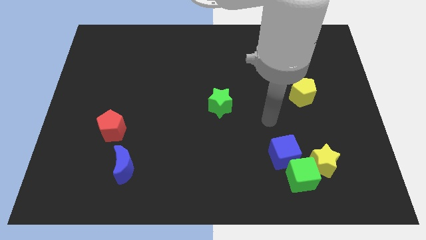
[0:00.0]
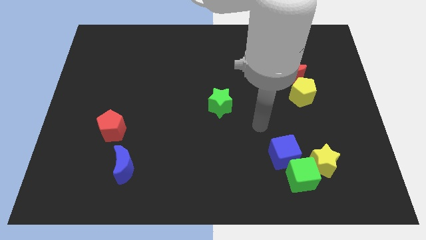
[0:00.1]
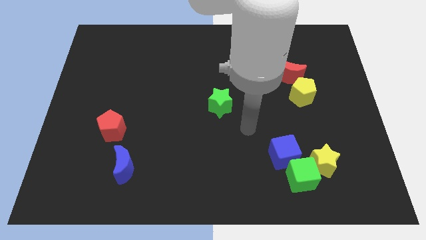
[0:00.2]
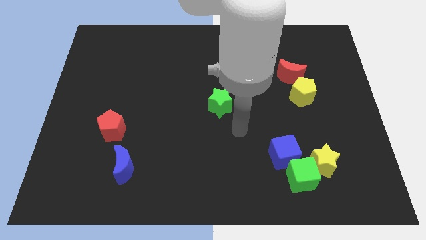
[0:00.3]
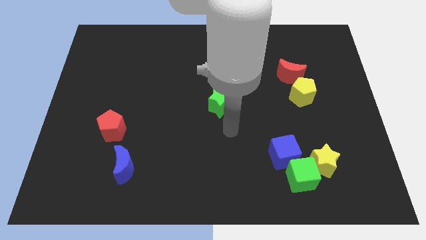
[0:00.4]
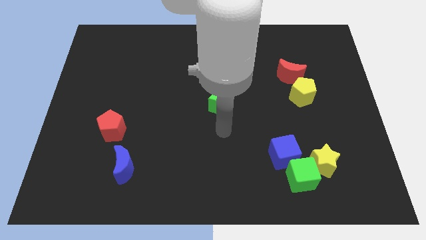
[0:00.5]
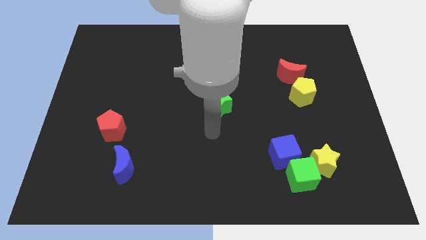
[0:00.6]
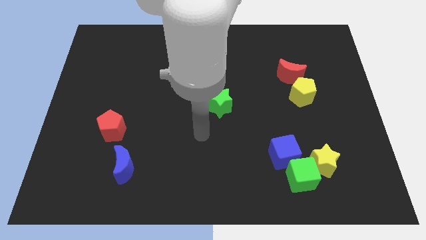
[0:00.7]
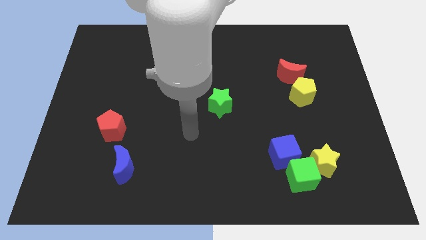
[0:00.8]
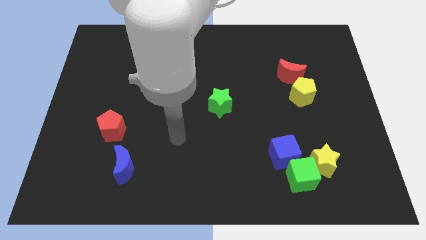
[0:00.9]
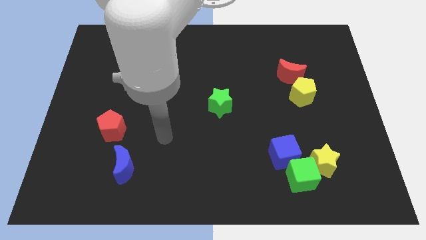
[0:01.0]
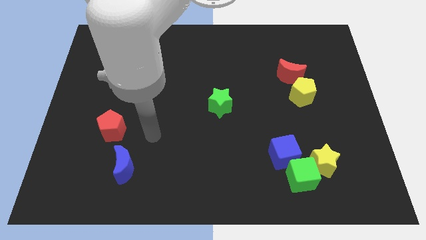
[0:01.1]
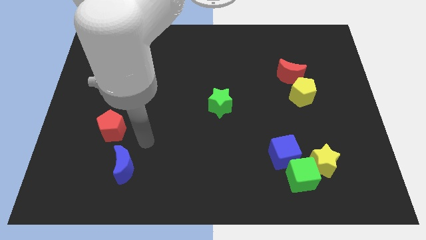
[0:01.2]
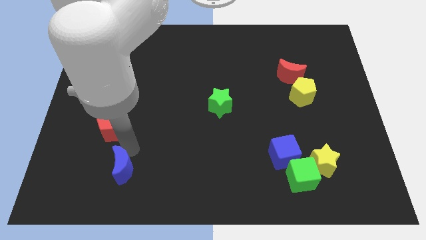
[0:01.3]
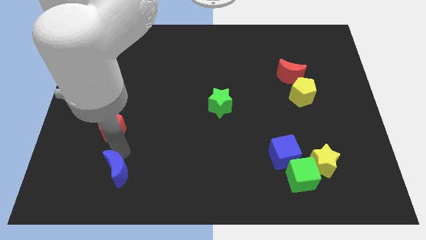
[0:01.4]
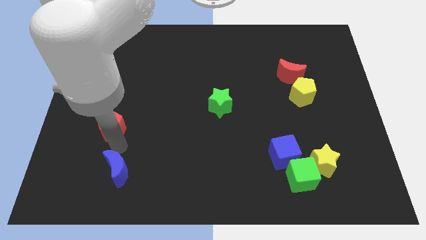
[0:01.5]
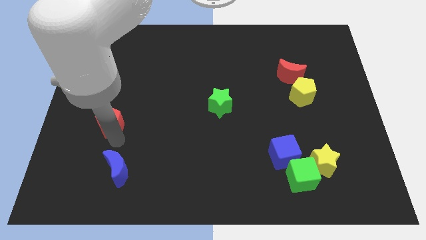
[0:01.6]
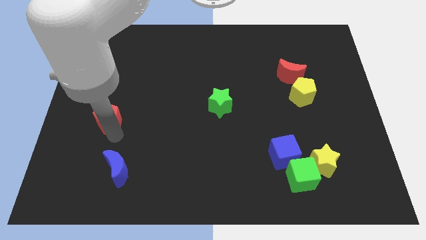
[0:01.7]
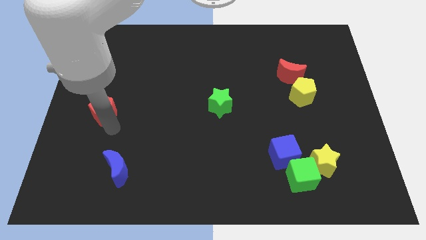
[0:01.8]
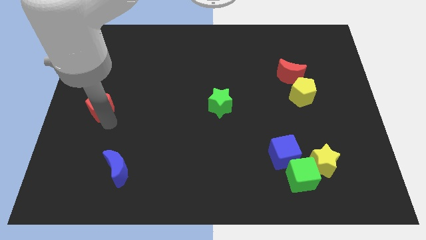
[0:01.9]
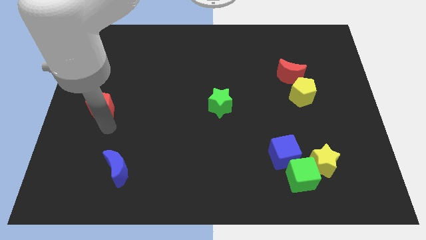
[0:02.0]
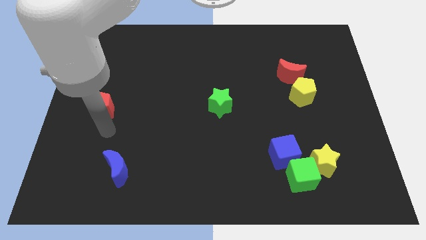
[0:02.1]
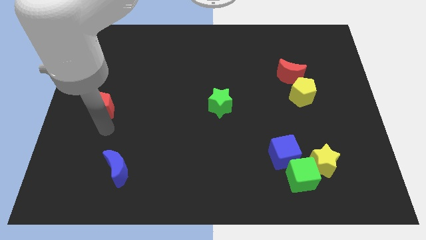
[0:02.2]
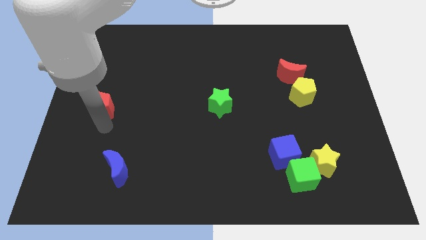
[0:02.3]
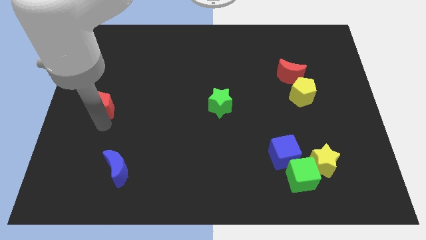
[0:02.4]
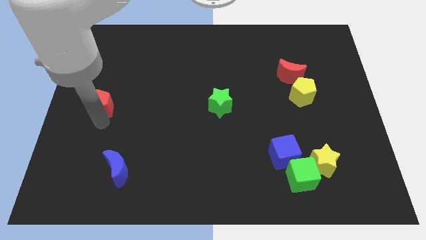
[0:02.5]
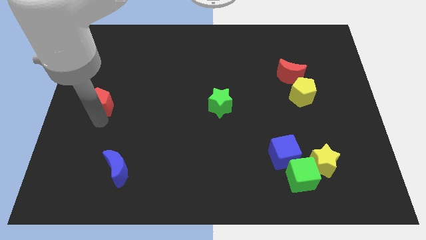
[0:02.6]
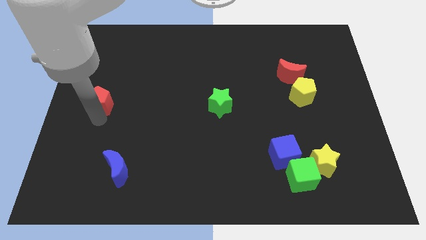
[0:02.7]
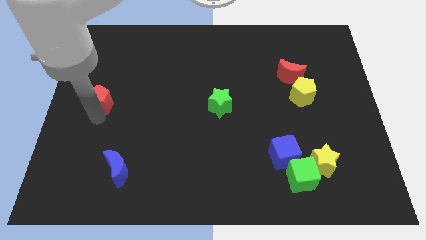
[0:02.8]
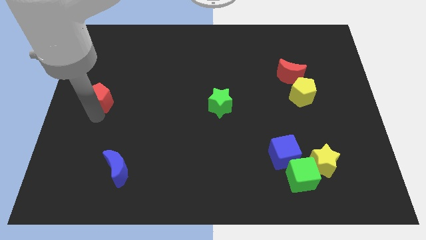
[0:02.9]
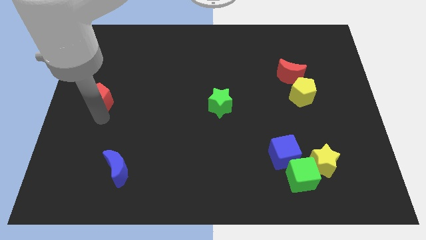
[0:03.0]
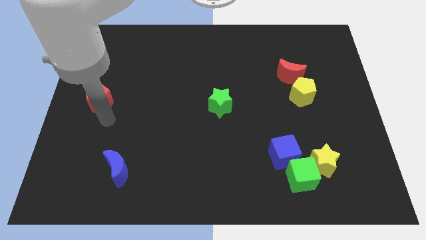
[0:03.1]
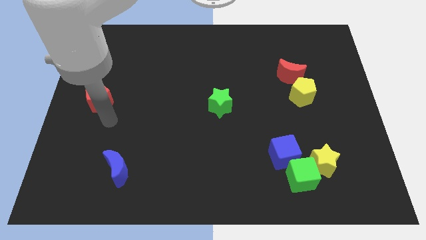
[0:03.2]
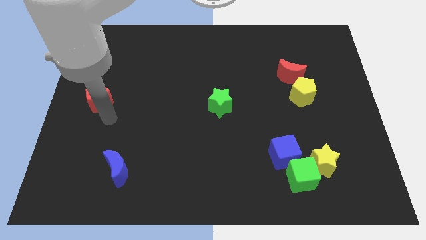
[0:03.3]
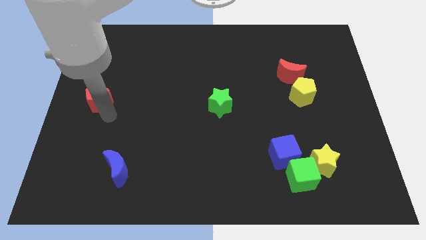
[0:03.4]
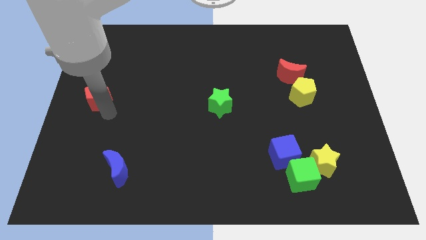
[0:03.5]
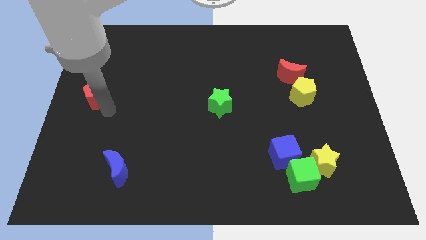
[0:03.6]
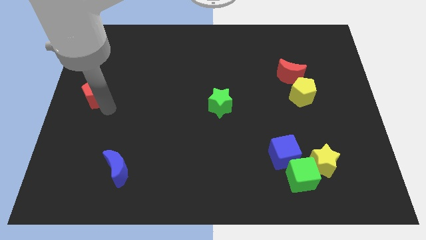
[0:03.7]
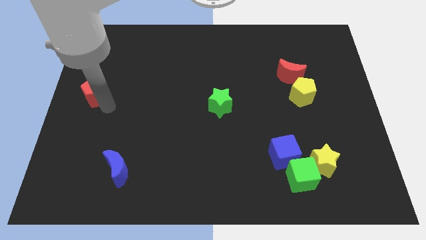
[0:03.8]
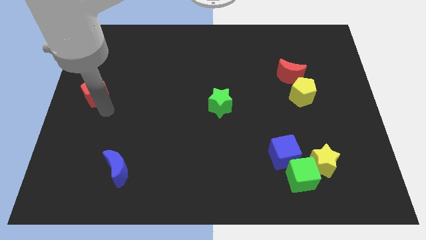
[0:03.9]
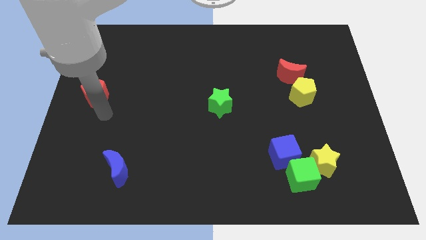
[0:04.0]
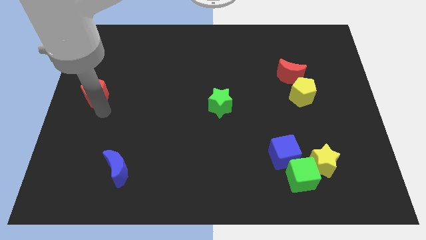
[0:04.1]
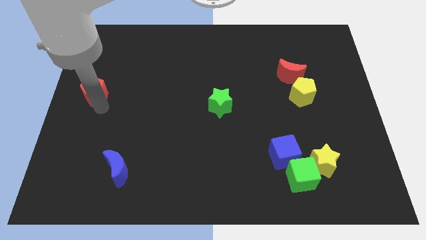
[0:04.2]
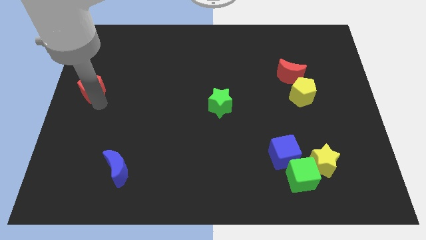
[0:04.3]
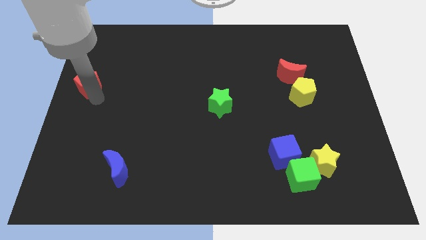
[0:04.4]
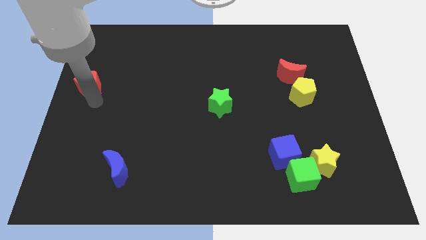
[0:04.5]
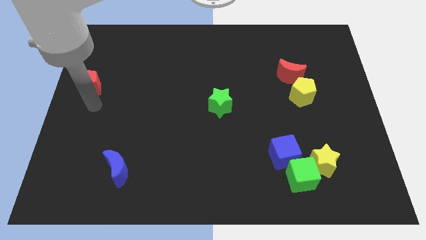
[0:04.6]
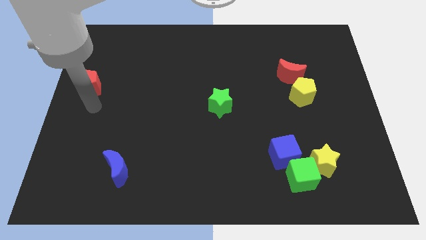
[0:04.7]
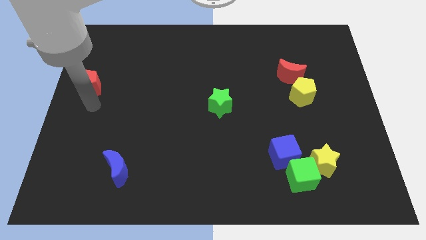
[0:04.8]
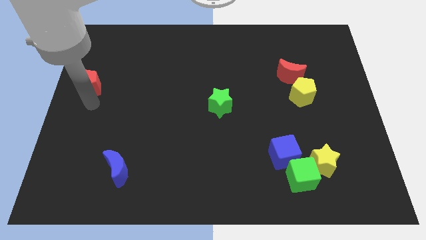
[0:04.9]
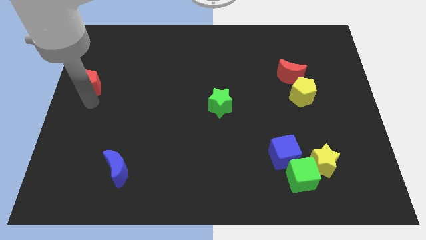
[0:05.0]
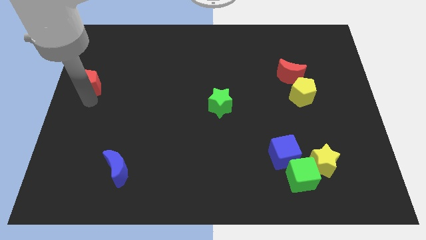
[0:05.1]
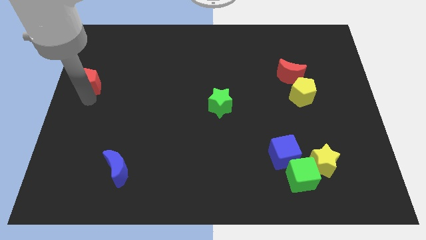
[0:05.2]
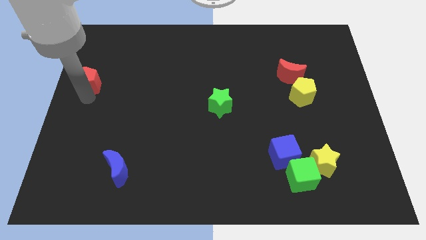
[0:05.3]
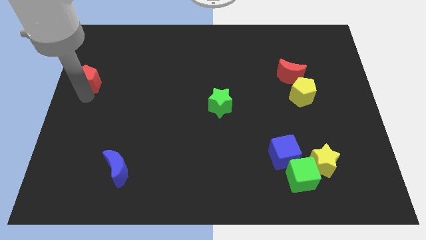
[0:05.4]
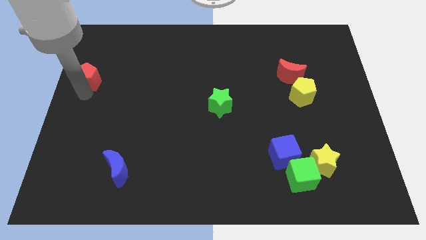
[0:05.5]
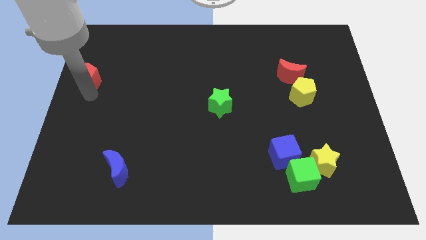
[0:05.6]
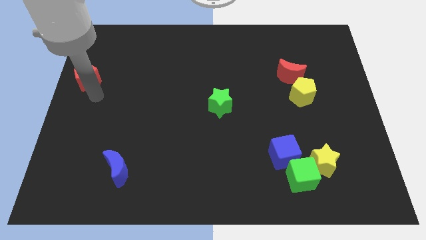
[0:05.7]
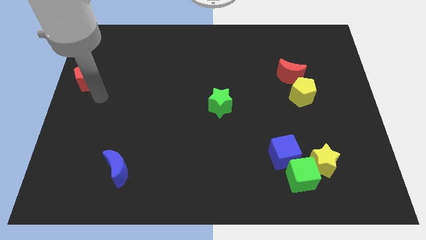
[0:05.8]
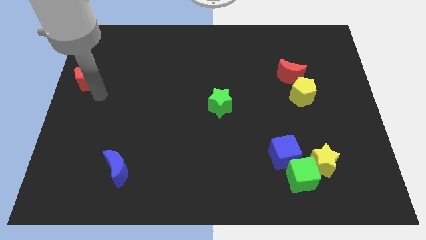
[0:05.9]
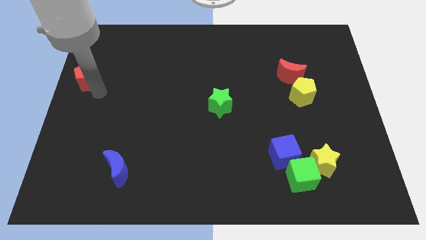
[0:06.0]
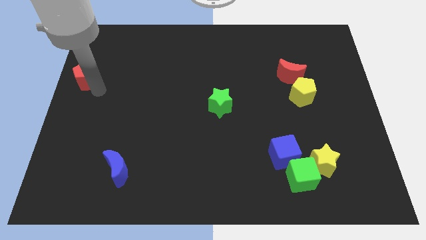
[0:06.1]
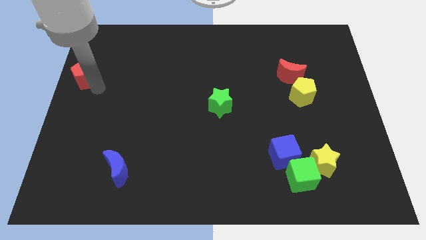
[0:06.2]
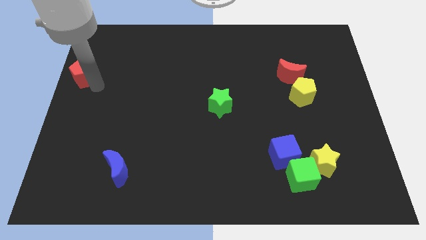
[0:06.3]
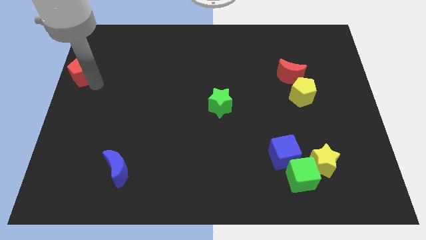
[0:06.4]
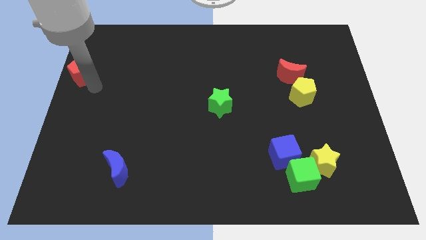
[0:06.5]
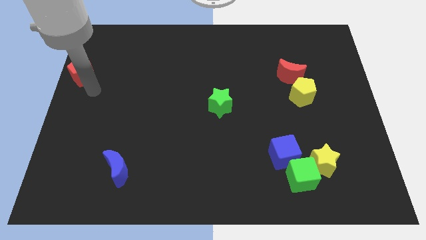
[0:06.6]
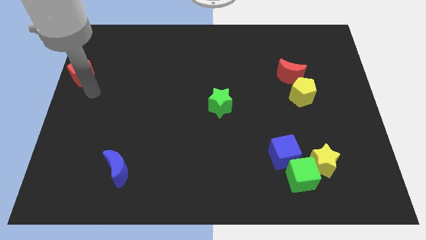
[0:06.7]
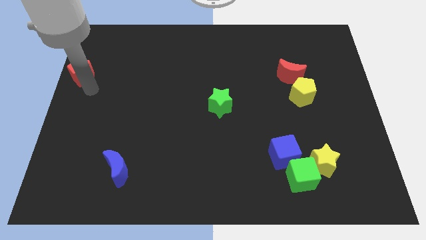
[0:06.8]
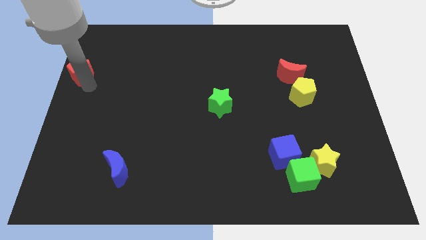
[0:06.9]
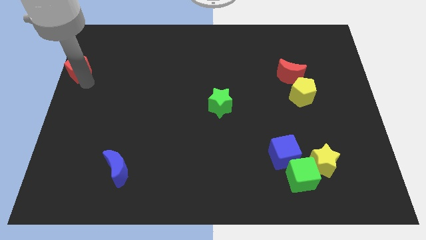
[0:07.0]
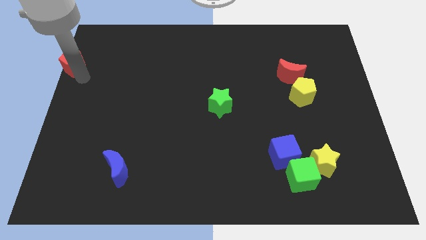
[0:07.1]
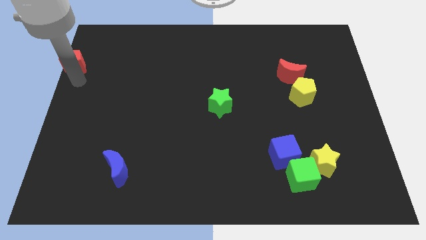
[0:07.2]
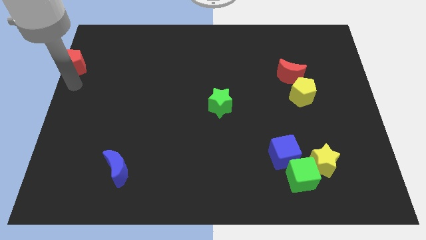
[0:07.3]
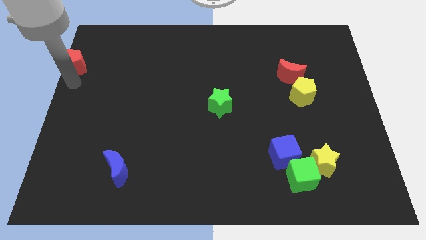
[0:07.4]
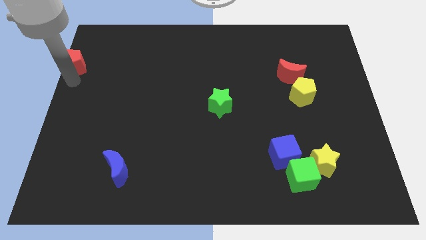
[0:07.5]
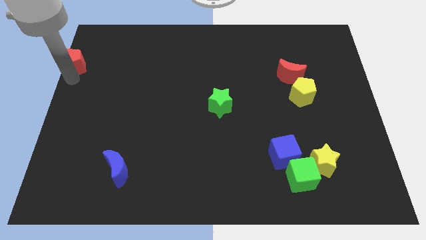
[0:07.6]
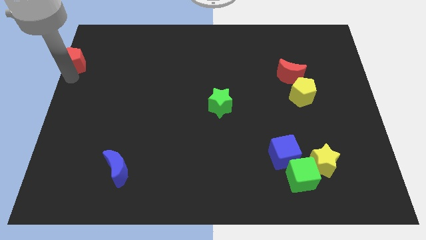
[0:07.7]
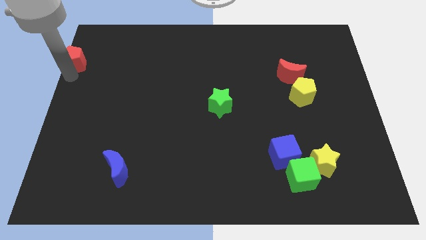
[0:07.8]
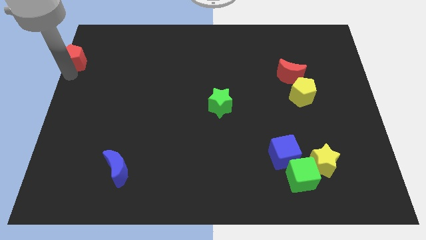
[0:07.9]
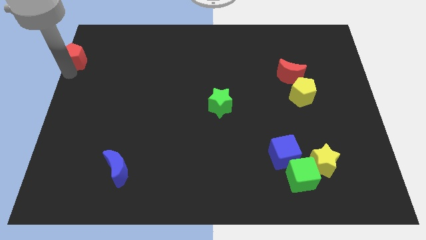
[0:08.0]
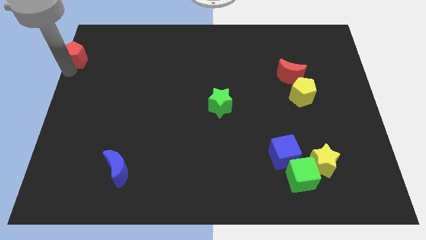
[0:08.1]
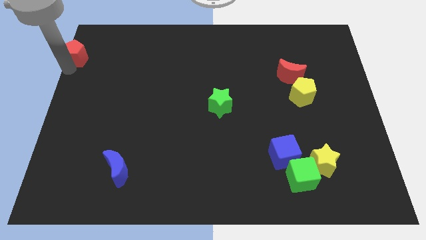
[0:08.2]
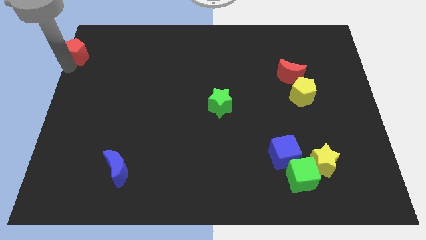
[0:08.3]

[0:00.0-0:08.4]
slide the red pentagon to the top left
